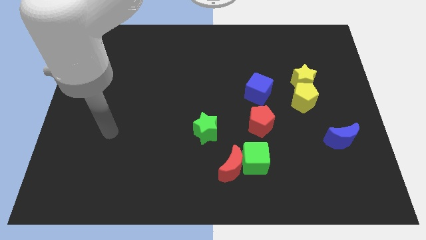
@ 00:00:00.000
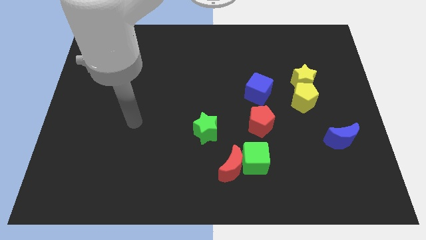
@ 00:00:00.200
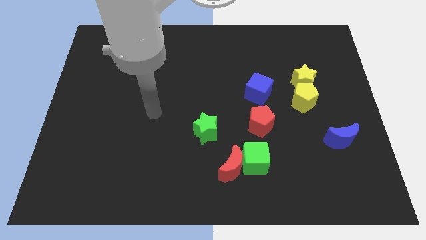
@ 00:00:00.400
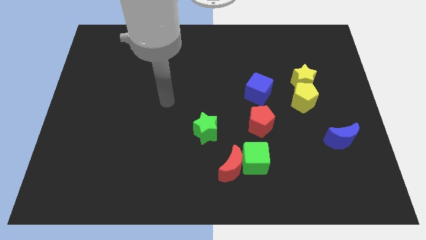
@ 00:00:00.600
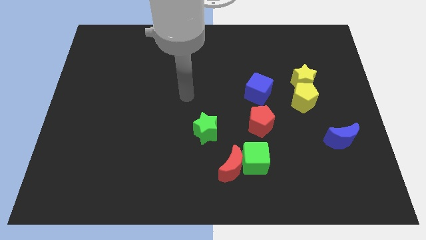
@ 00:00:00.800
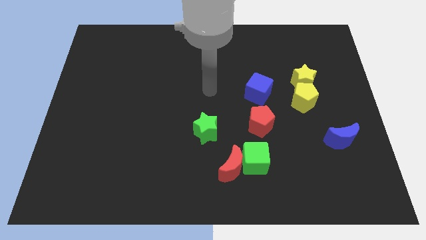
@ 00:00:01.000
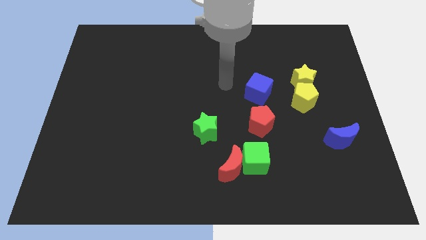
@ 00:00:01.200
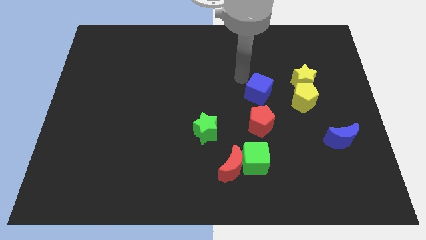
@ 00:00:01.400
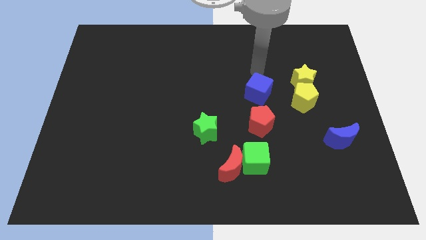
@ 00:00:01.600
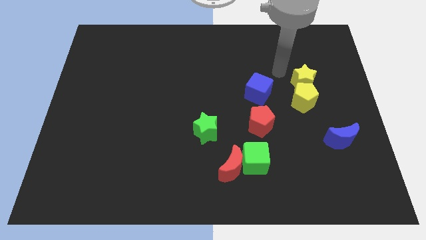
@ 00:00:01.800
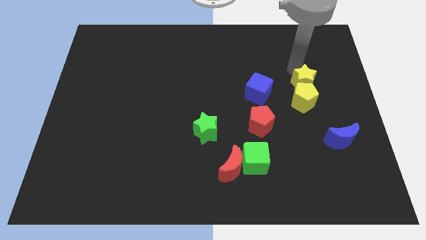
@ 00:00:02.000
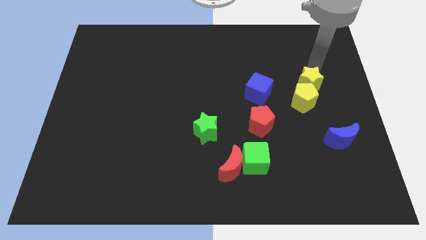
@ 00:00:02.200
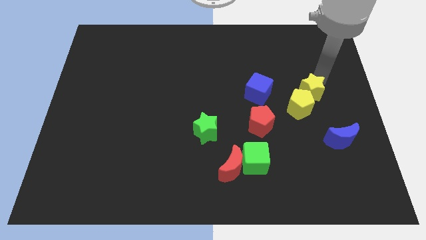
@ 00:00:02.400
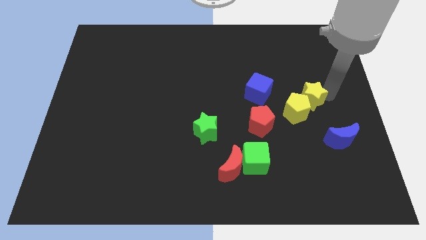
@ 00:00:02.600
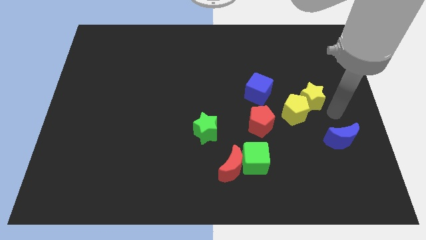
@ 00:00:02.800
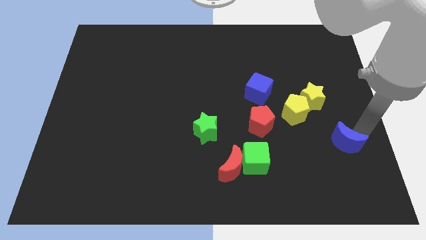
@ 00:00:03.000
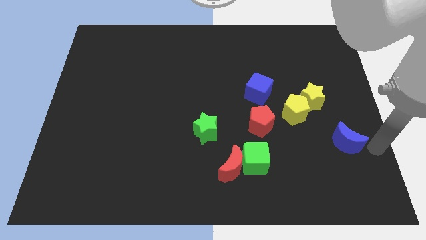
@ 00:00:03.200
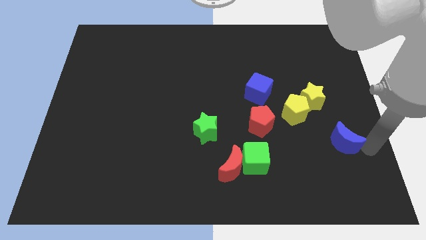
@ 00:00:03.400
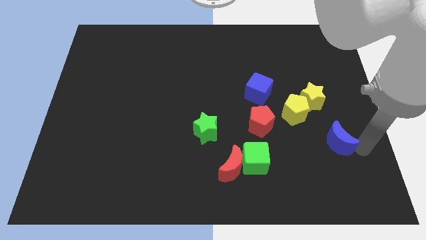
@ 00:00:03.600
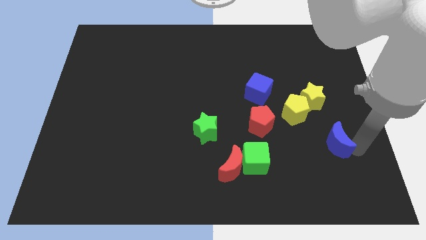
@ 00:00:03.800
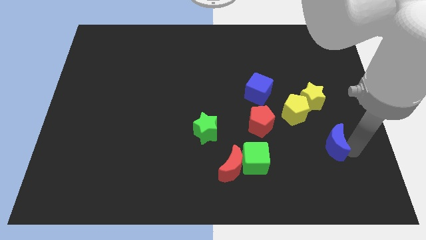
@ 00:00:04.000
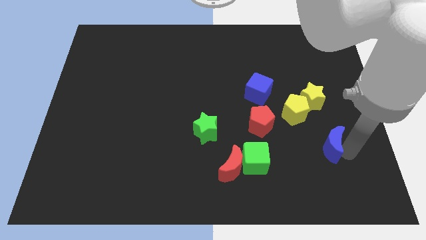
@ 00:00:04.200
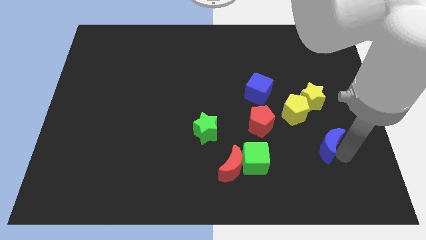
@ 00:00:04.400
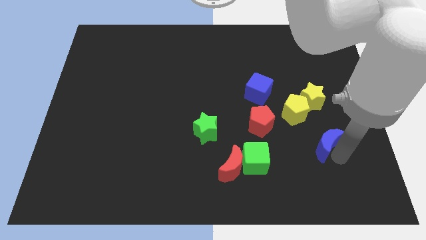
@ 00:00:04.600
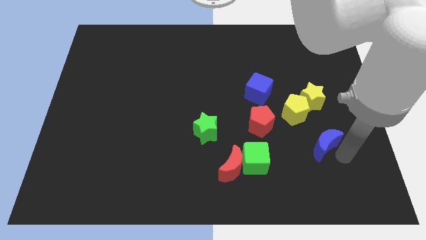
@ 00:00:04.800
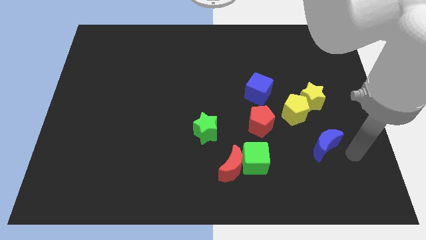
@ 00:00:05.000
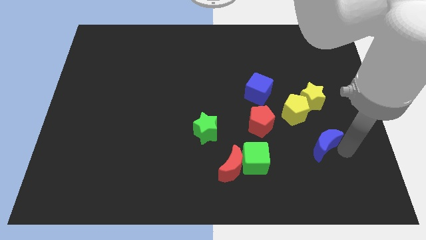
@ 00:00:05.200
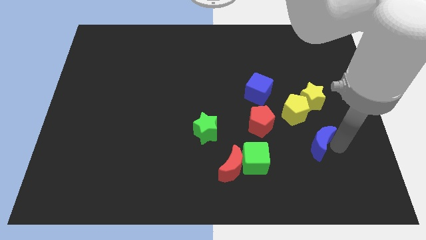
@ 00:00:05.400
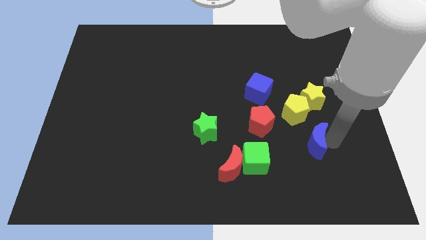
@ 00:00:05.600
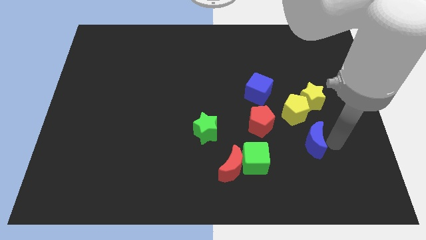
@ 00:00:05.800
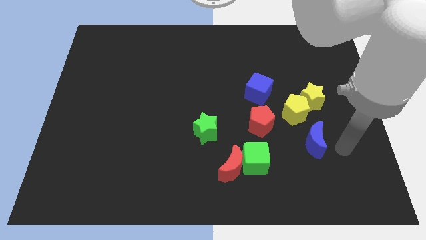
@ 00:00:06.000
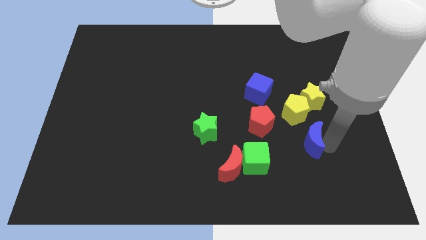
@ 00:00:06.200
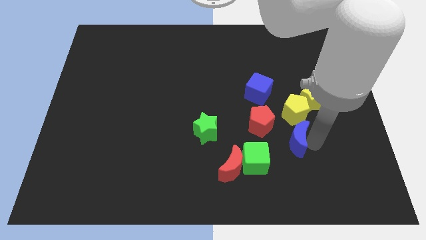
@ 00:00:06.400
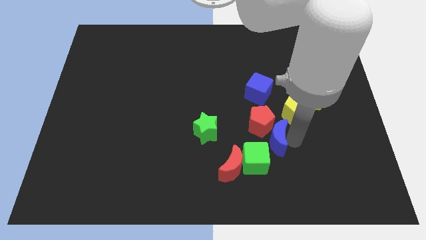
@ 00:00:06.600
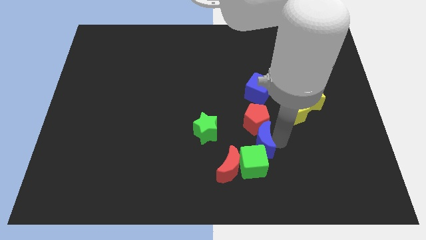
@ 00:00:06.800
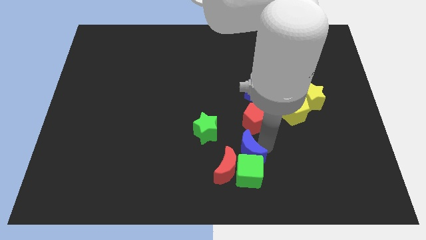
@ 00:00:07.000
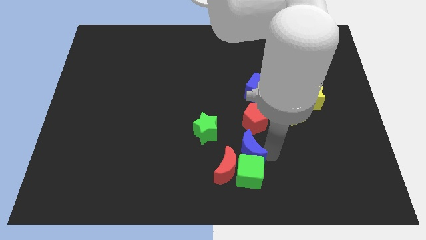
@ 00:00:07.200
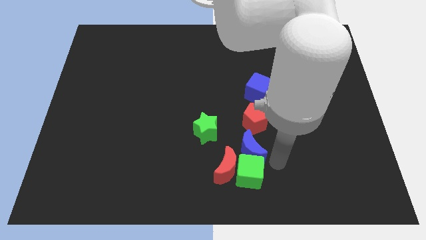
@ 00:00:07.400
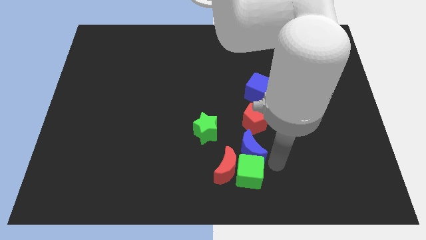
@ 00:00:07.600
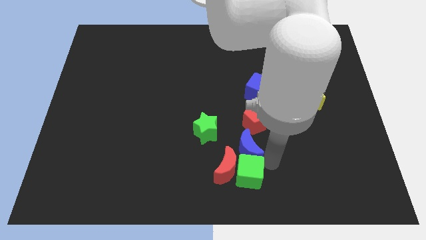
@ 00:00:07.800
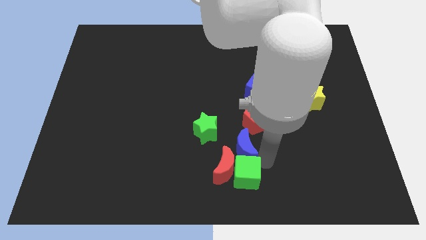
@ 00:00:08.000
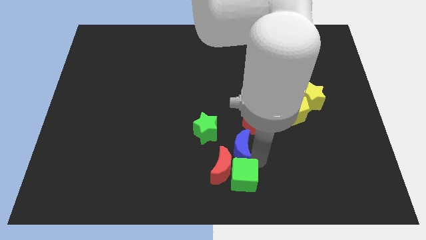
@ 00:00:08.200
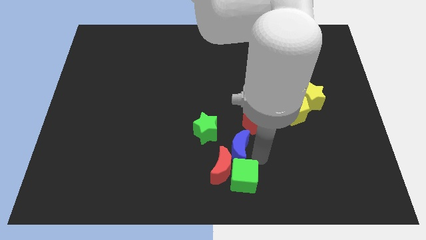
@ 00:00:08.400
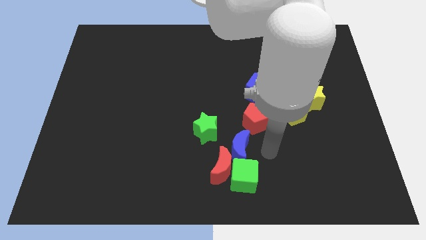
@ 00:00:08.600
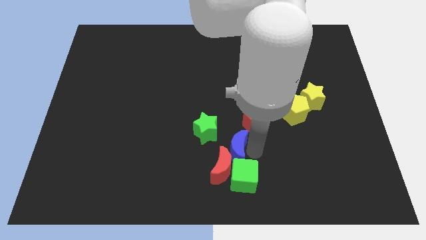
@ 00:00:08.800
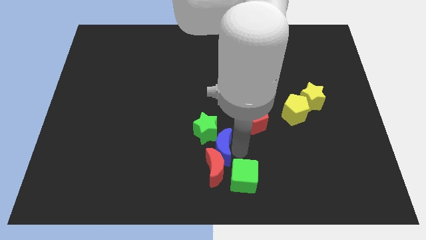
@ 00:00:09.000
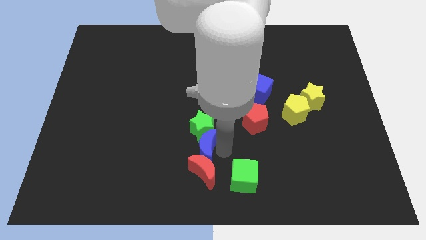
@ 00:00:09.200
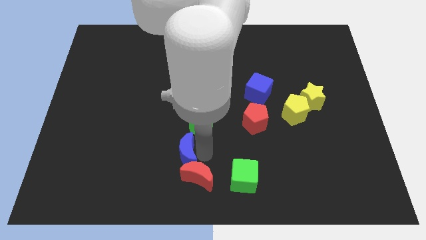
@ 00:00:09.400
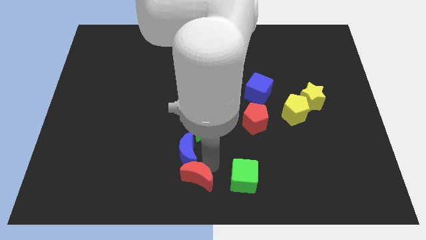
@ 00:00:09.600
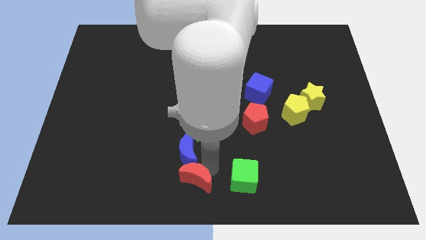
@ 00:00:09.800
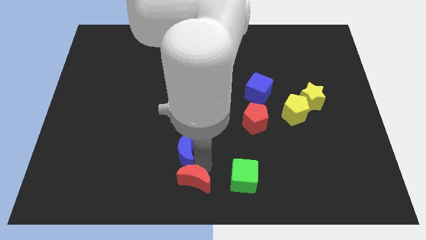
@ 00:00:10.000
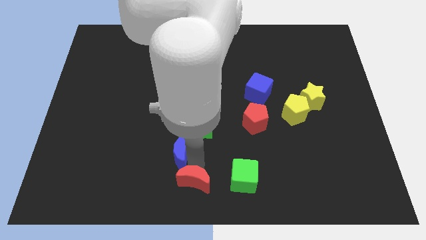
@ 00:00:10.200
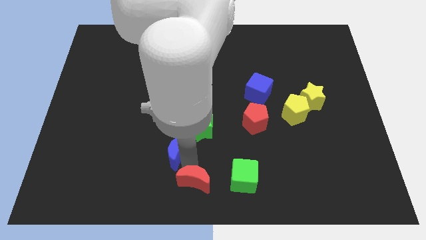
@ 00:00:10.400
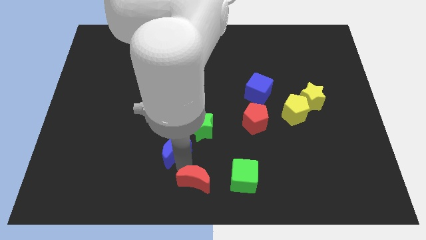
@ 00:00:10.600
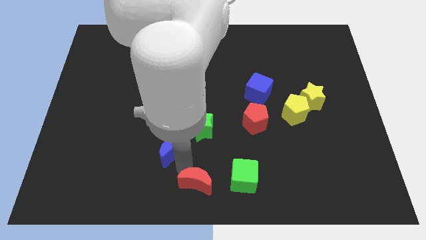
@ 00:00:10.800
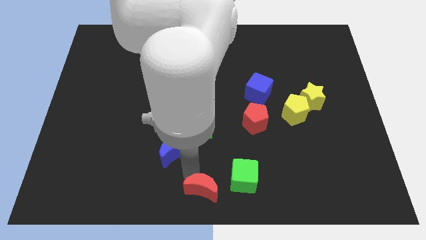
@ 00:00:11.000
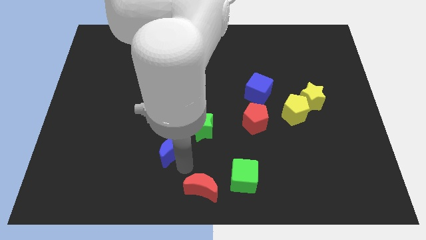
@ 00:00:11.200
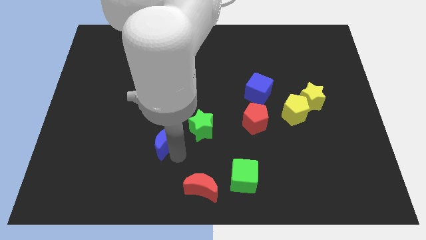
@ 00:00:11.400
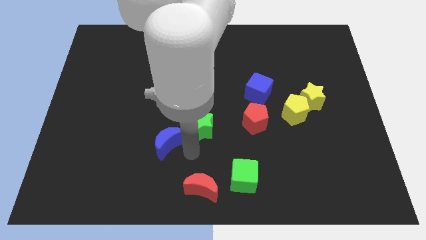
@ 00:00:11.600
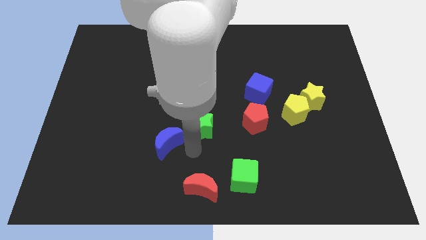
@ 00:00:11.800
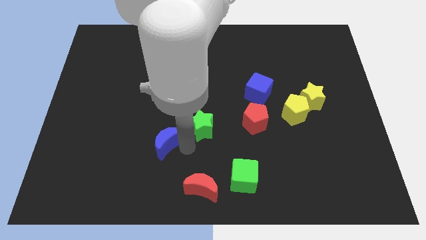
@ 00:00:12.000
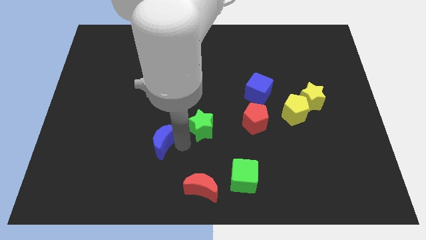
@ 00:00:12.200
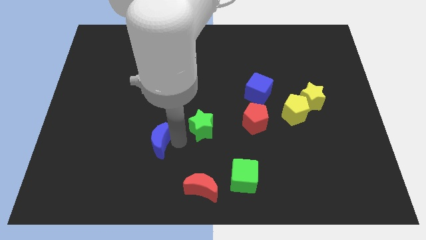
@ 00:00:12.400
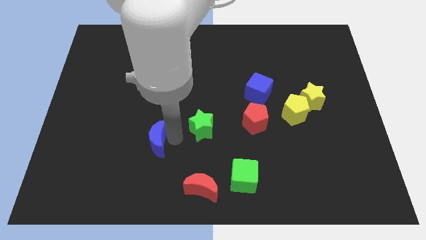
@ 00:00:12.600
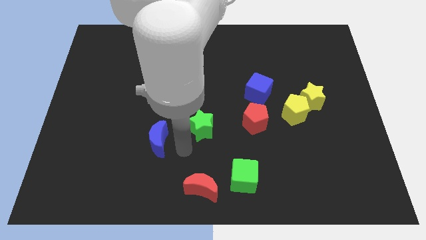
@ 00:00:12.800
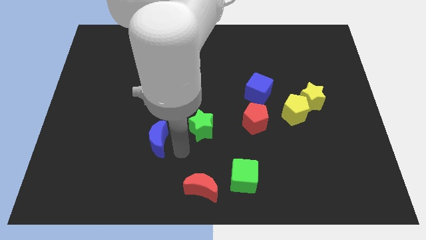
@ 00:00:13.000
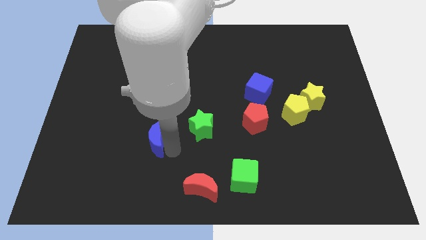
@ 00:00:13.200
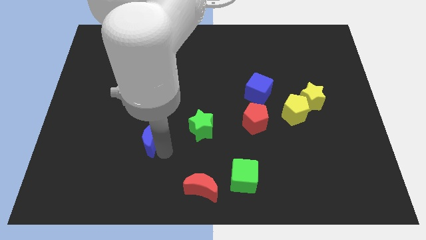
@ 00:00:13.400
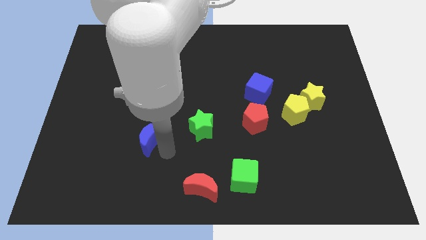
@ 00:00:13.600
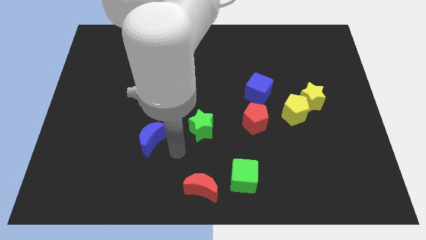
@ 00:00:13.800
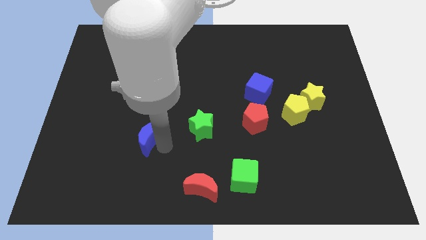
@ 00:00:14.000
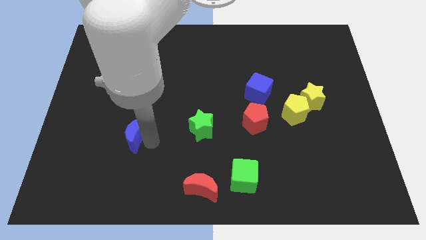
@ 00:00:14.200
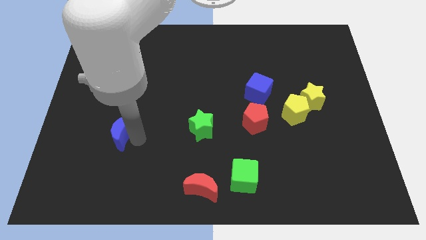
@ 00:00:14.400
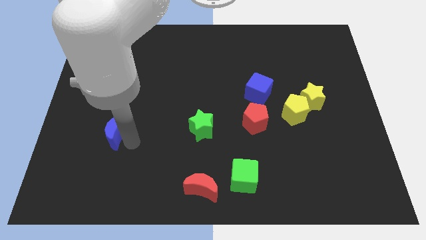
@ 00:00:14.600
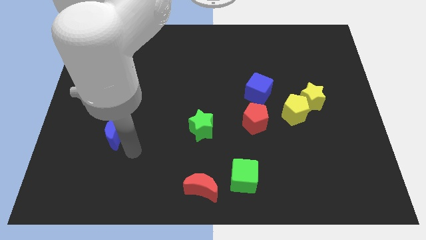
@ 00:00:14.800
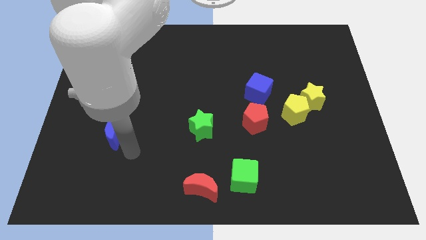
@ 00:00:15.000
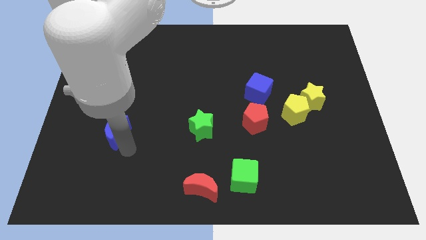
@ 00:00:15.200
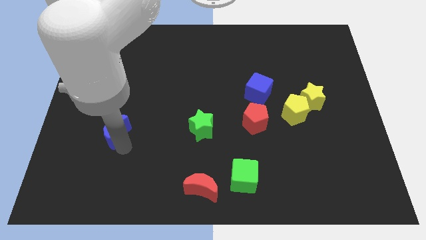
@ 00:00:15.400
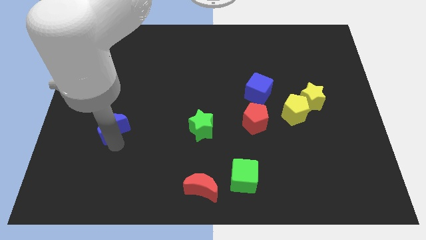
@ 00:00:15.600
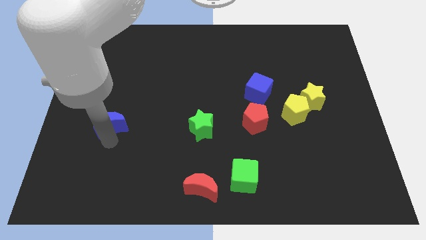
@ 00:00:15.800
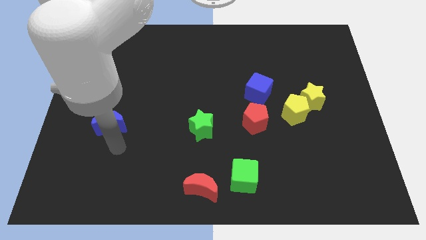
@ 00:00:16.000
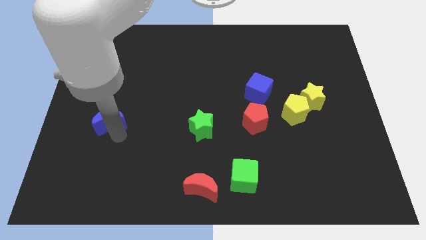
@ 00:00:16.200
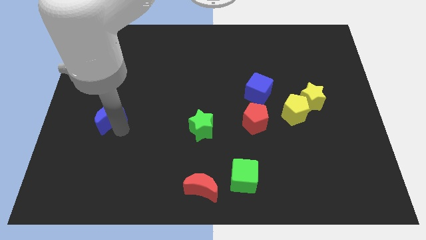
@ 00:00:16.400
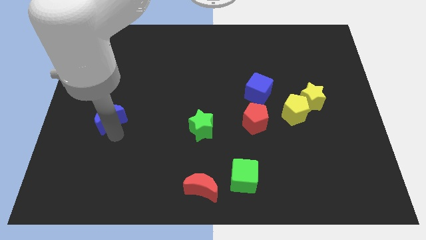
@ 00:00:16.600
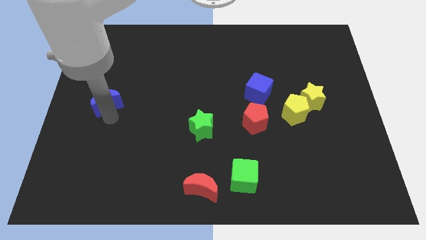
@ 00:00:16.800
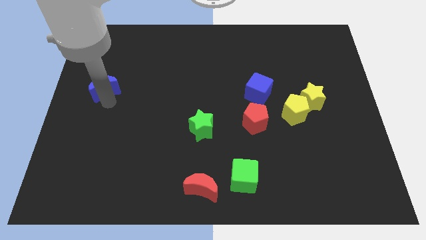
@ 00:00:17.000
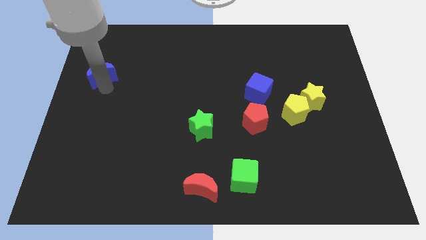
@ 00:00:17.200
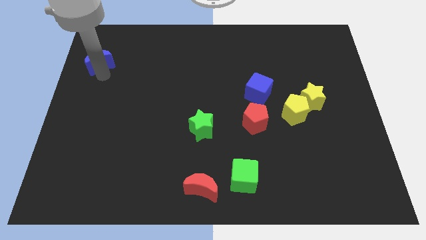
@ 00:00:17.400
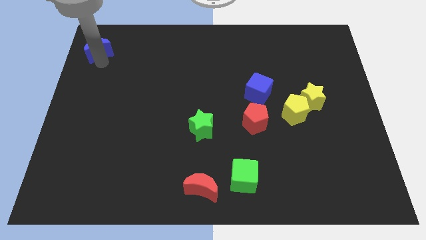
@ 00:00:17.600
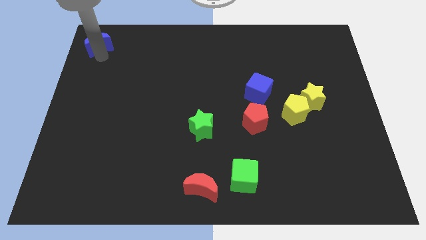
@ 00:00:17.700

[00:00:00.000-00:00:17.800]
slide the blue moon to the top left
